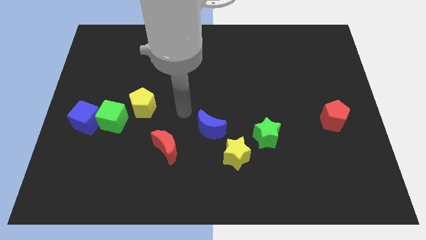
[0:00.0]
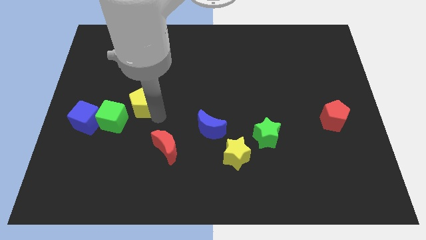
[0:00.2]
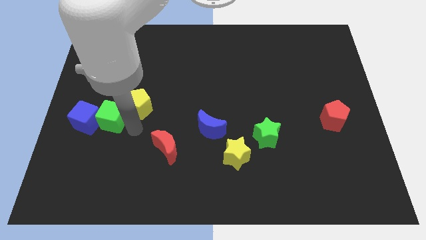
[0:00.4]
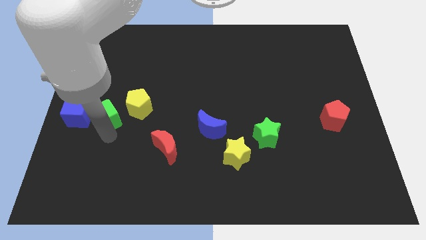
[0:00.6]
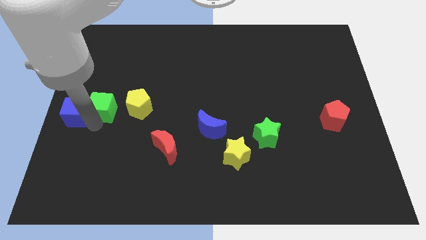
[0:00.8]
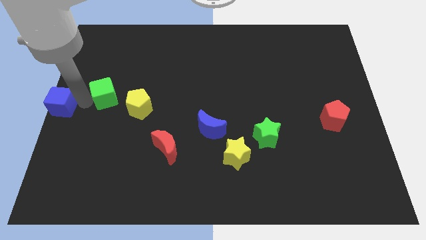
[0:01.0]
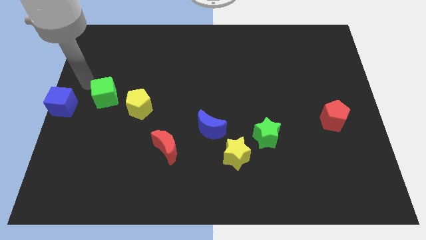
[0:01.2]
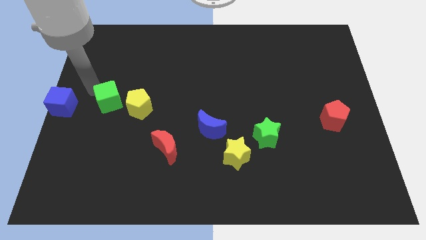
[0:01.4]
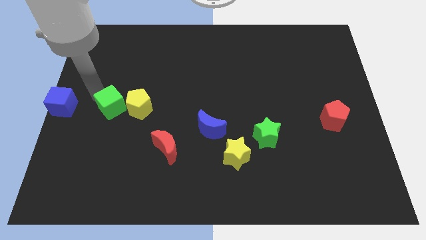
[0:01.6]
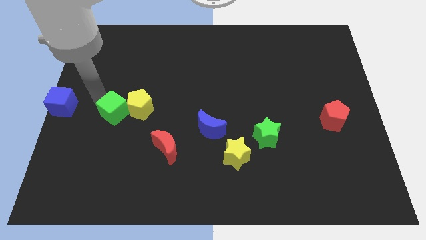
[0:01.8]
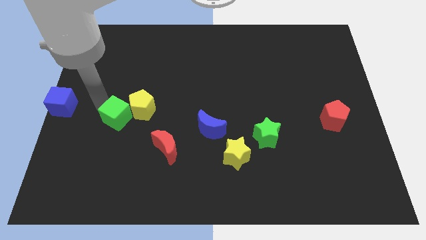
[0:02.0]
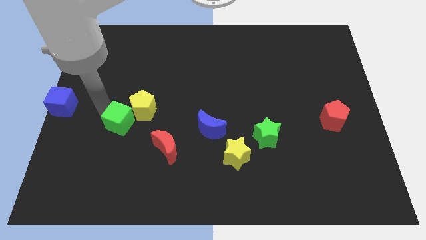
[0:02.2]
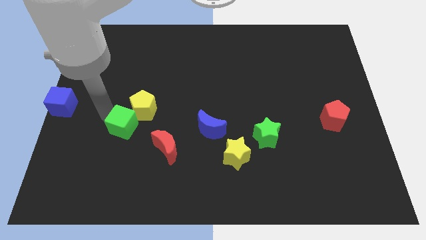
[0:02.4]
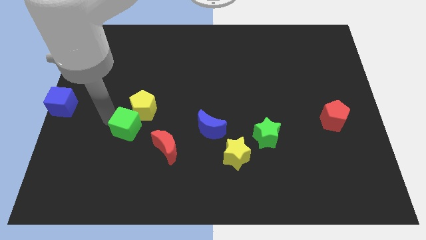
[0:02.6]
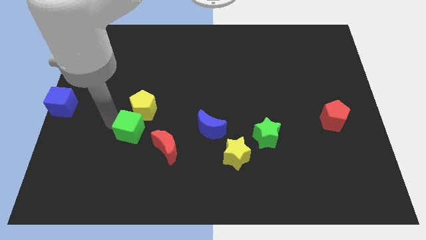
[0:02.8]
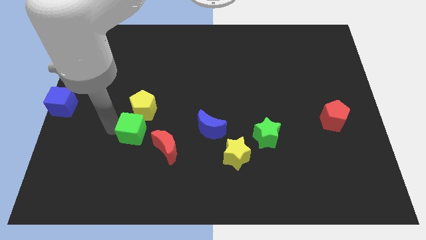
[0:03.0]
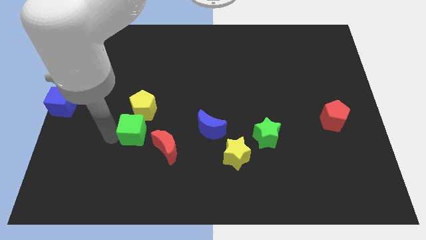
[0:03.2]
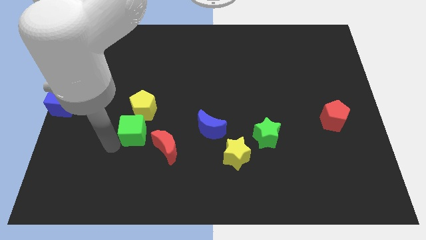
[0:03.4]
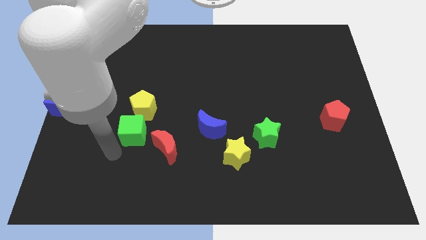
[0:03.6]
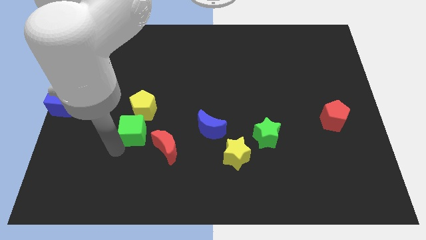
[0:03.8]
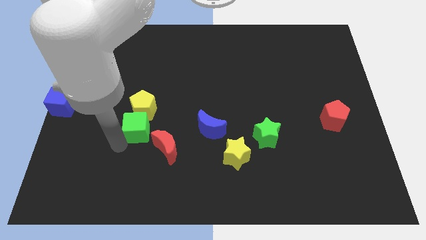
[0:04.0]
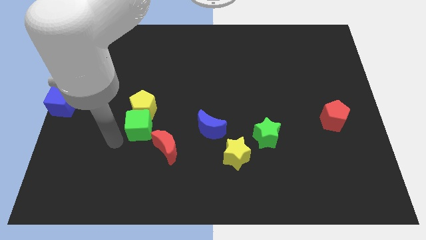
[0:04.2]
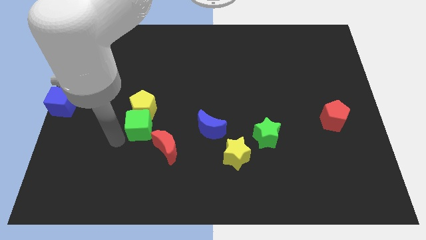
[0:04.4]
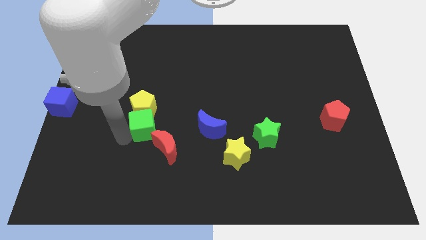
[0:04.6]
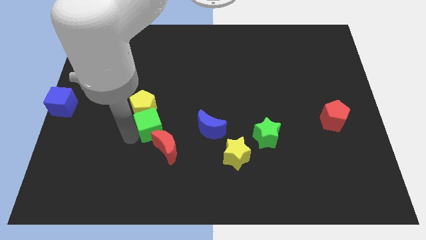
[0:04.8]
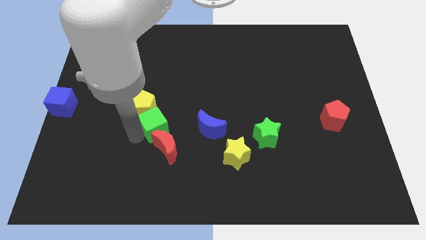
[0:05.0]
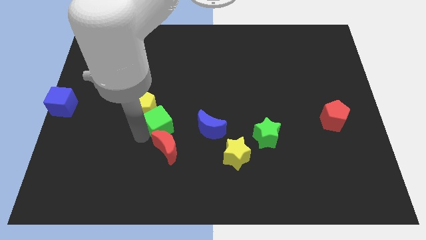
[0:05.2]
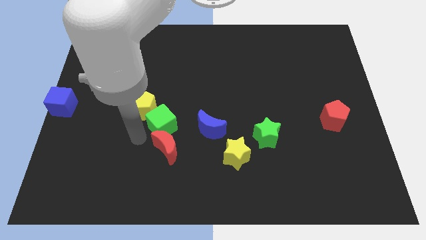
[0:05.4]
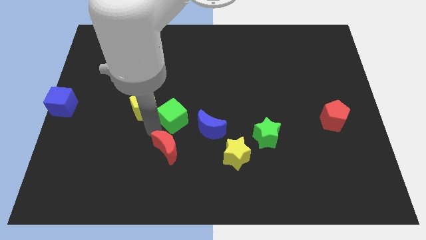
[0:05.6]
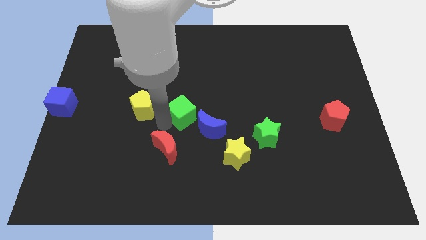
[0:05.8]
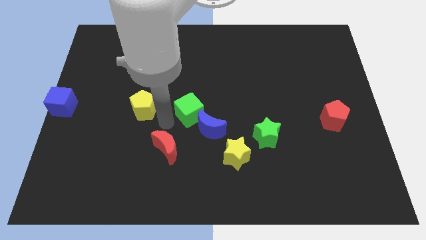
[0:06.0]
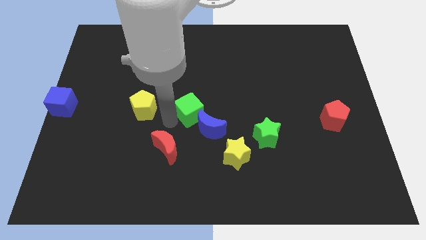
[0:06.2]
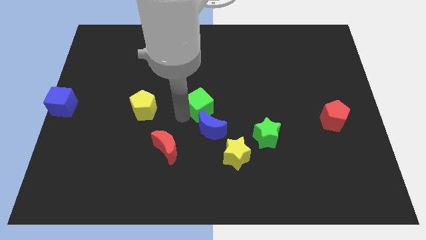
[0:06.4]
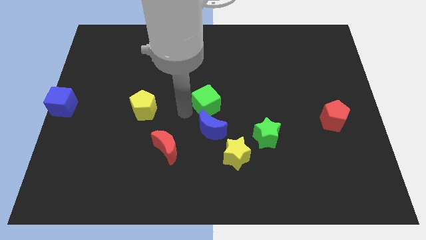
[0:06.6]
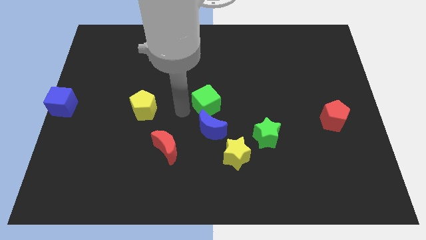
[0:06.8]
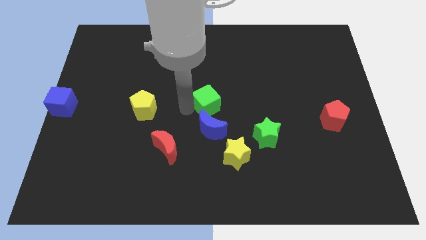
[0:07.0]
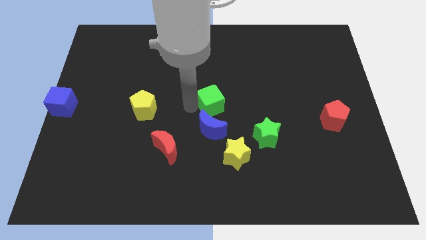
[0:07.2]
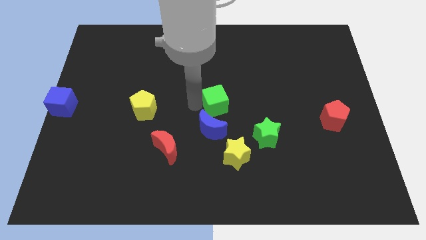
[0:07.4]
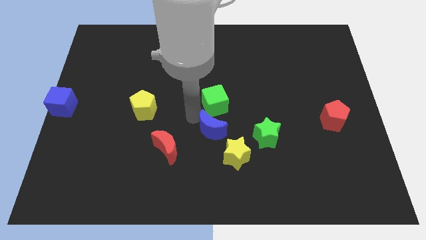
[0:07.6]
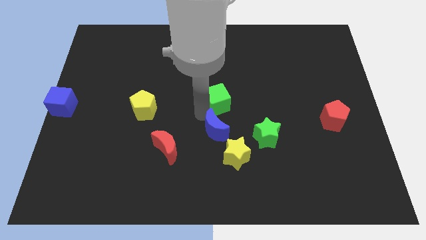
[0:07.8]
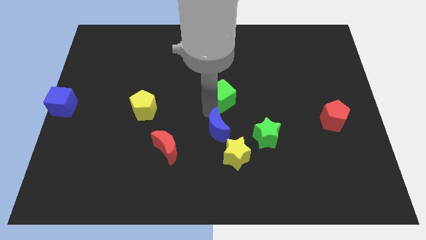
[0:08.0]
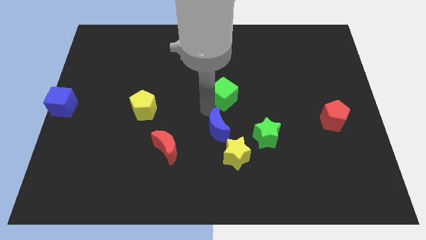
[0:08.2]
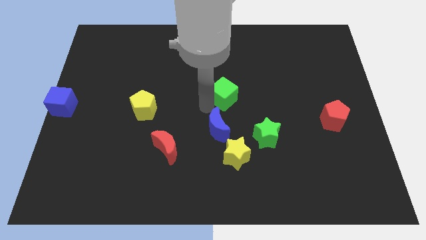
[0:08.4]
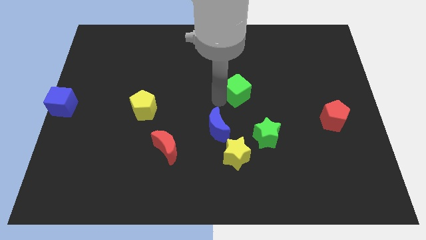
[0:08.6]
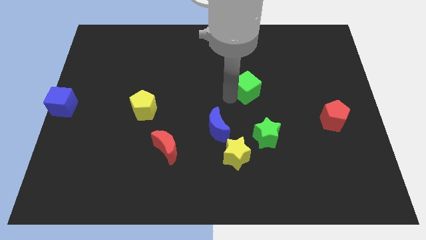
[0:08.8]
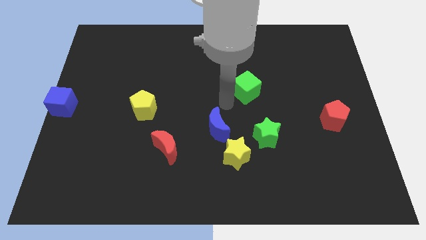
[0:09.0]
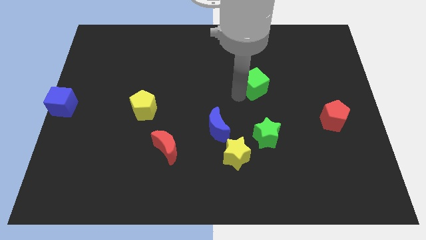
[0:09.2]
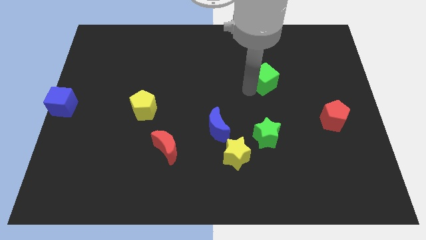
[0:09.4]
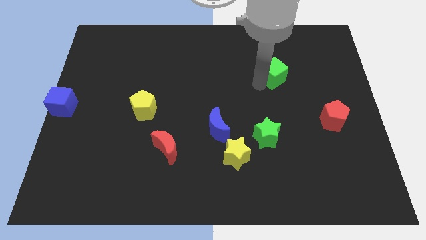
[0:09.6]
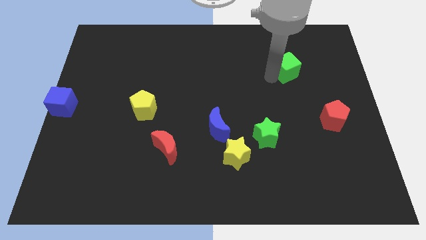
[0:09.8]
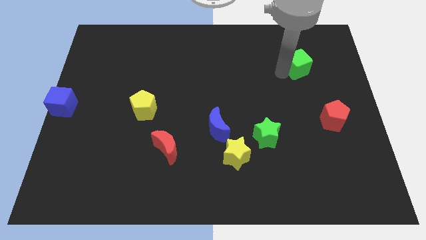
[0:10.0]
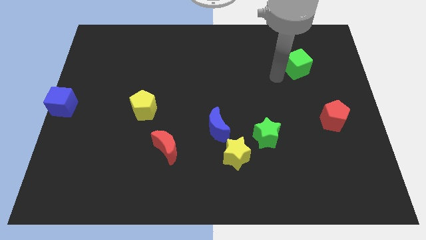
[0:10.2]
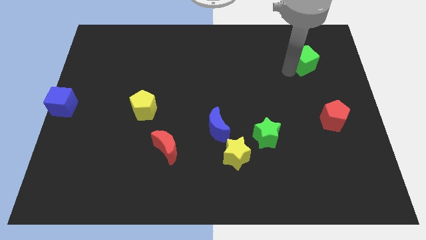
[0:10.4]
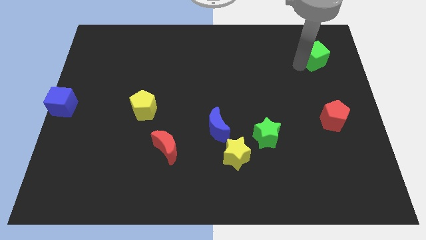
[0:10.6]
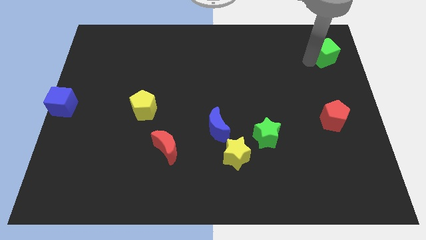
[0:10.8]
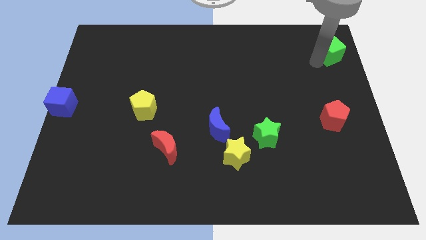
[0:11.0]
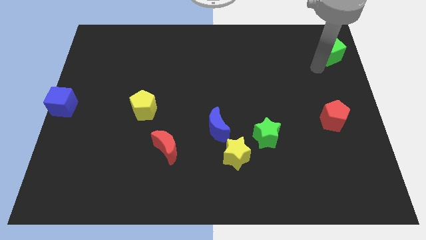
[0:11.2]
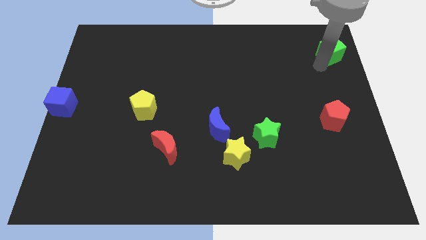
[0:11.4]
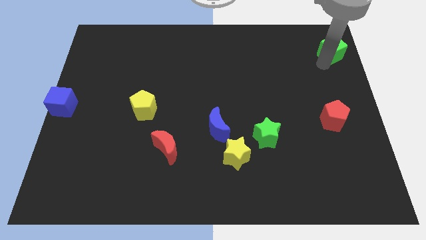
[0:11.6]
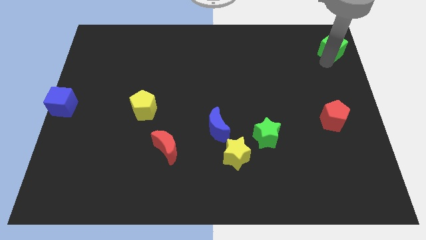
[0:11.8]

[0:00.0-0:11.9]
push the green cube to the top right corner
